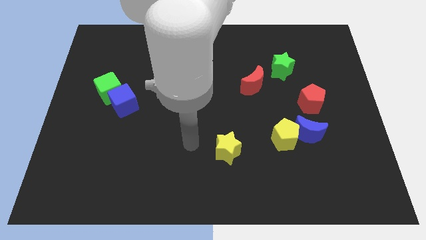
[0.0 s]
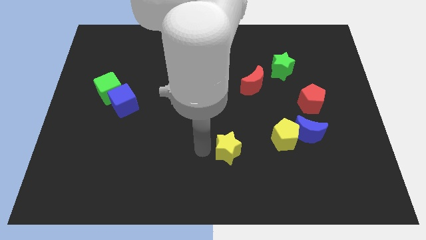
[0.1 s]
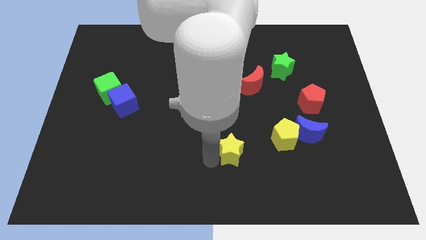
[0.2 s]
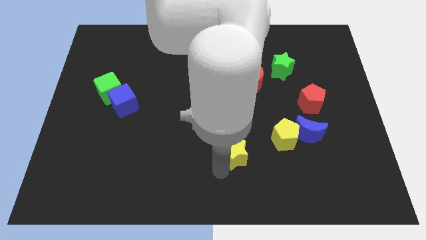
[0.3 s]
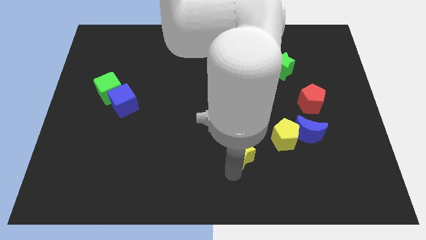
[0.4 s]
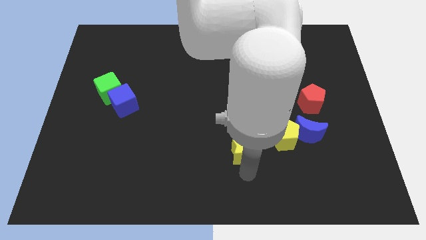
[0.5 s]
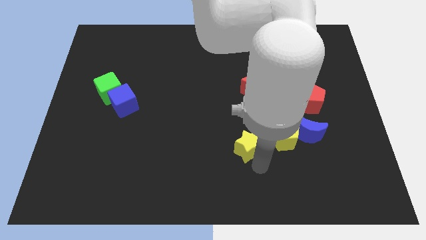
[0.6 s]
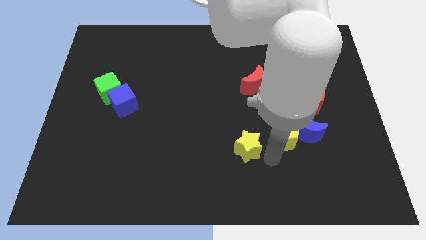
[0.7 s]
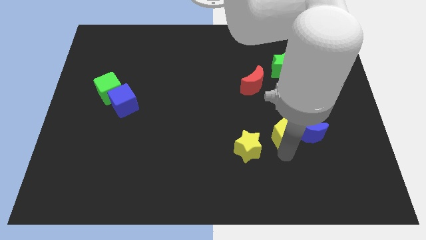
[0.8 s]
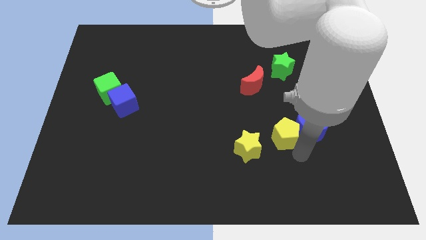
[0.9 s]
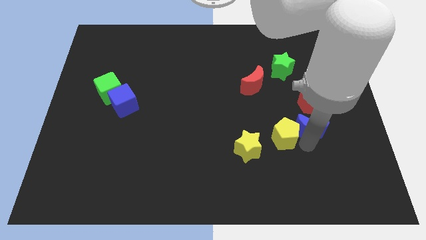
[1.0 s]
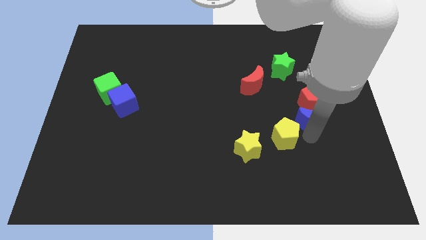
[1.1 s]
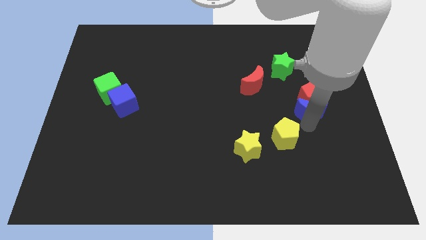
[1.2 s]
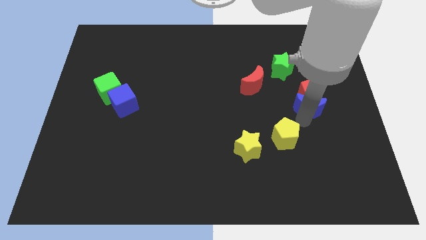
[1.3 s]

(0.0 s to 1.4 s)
move the yellow pentagon away from the blue moon

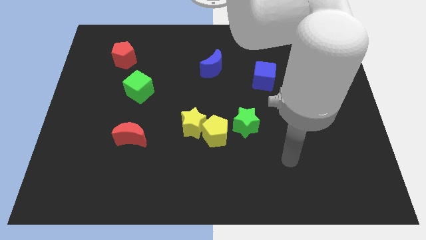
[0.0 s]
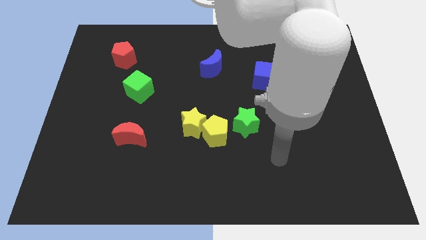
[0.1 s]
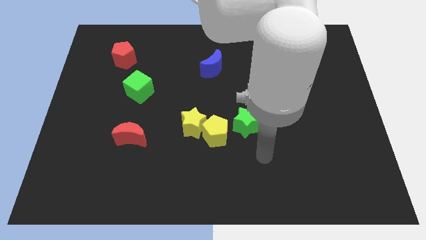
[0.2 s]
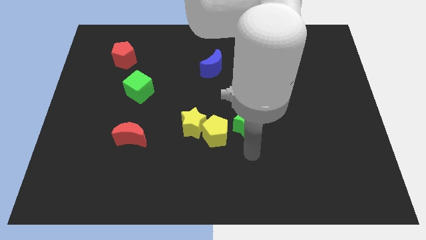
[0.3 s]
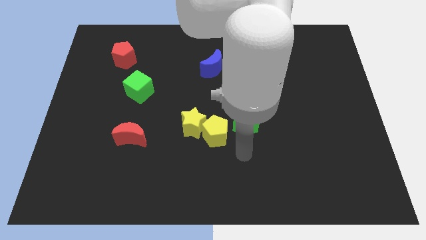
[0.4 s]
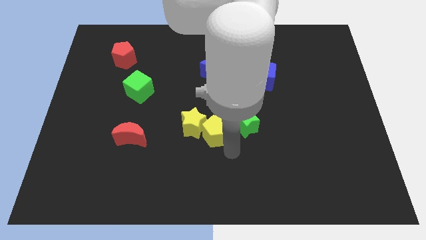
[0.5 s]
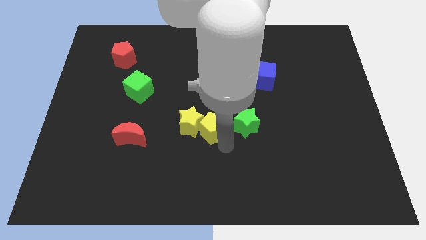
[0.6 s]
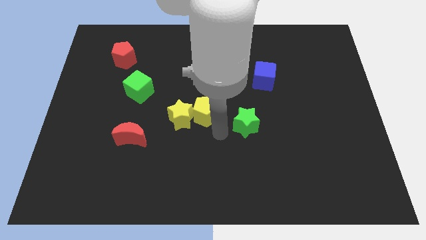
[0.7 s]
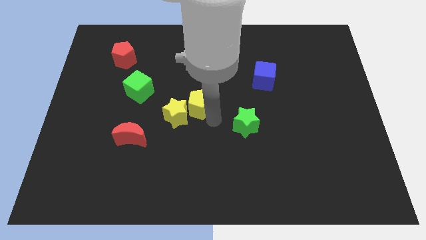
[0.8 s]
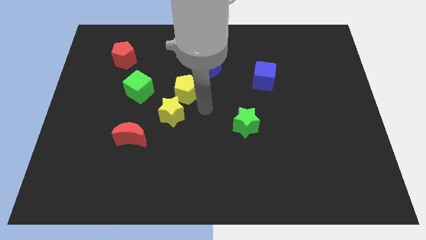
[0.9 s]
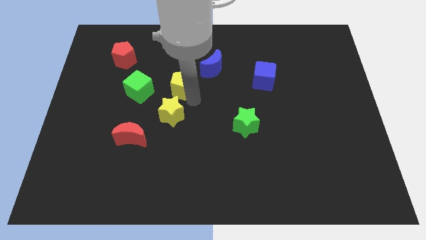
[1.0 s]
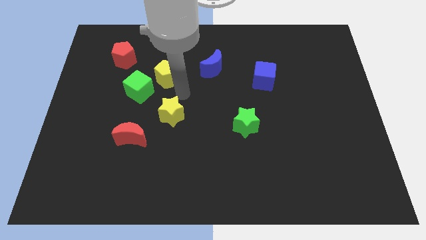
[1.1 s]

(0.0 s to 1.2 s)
pull the yellow star apart from the yellow pentagon

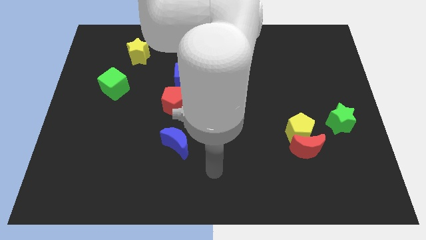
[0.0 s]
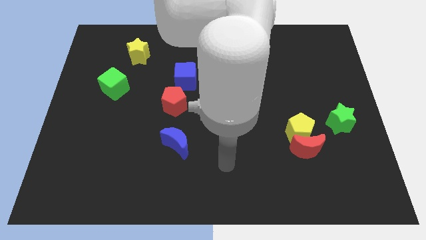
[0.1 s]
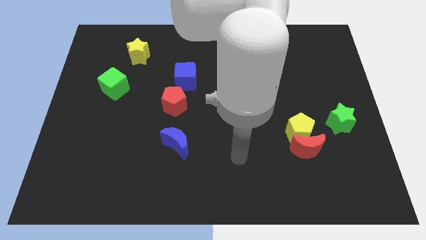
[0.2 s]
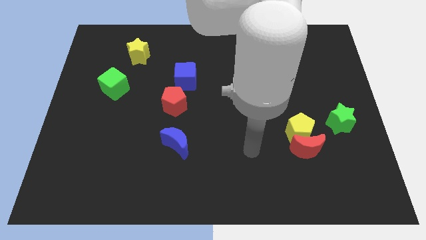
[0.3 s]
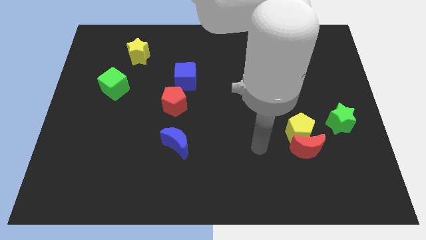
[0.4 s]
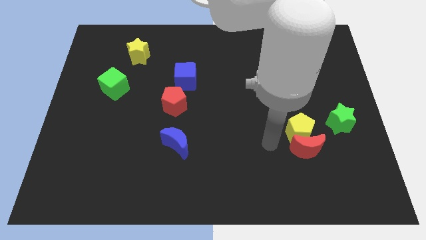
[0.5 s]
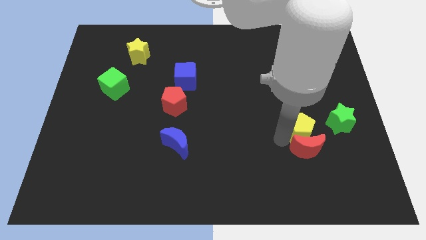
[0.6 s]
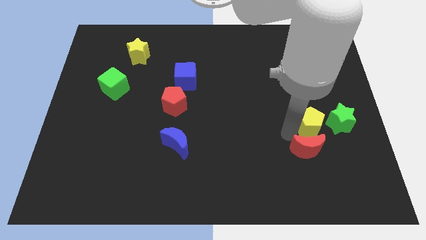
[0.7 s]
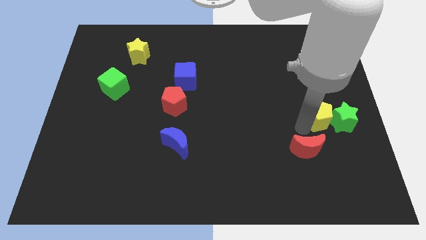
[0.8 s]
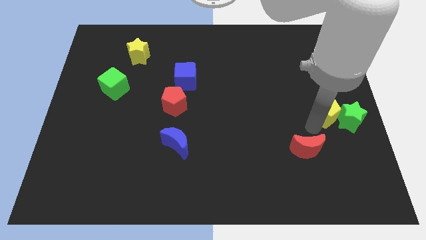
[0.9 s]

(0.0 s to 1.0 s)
move the red moon away from the yellow pentagon

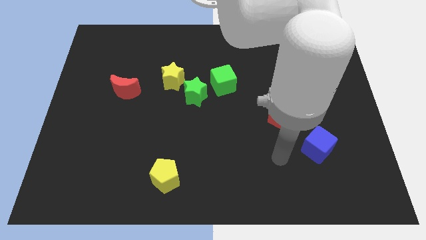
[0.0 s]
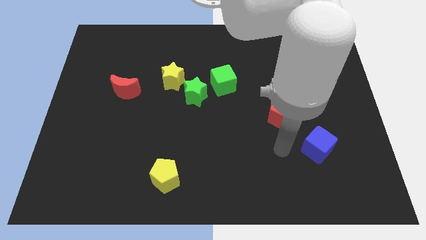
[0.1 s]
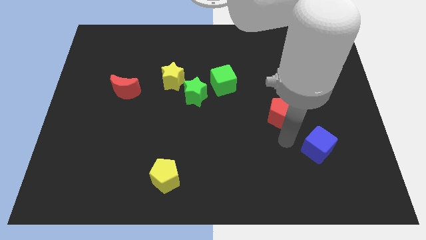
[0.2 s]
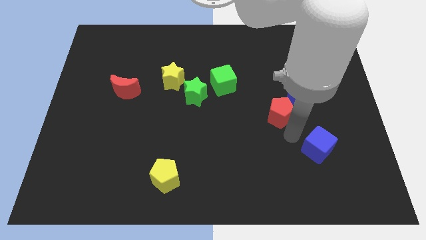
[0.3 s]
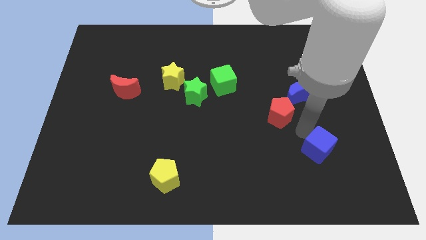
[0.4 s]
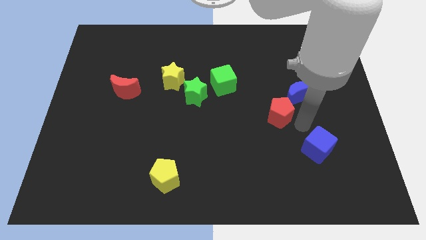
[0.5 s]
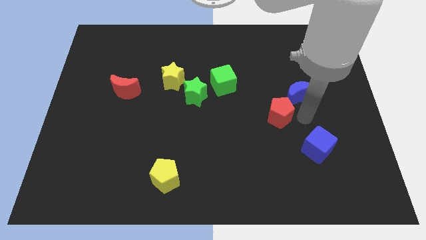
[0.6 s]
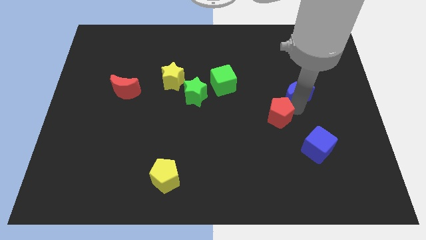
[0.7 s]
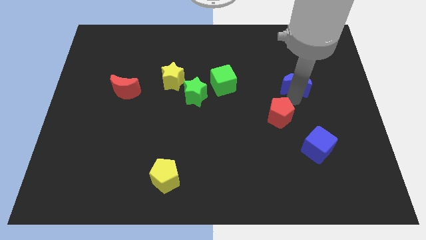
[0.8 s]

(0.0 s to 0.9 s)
pull the red pentagon apart from the blue moon

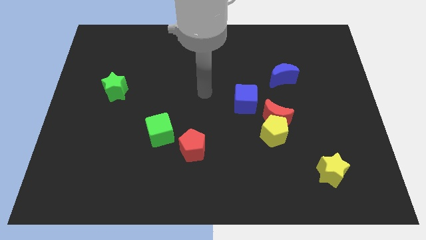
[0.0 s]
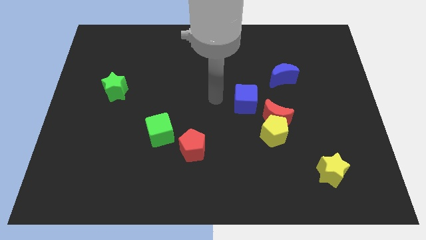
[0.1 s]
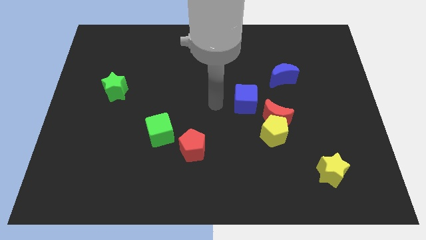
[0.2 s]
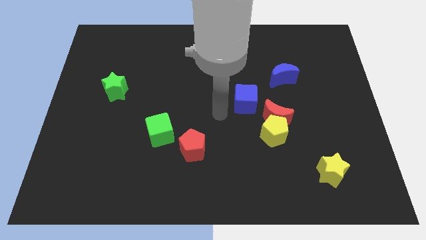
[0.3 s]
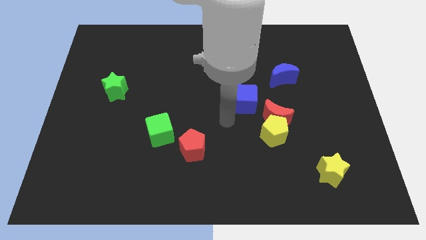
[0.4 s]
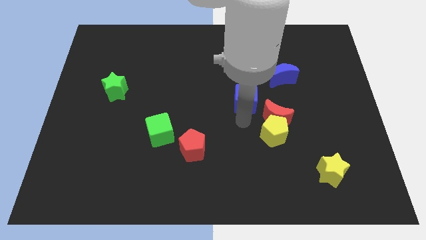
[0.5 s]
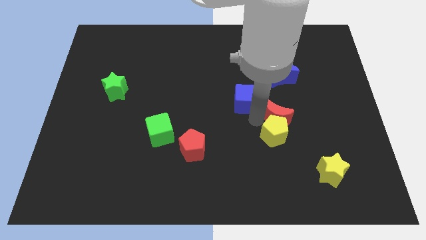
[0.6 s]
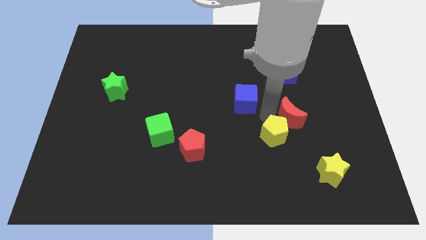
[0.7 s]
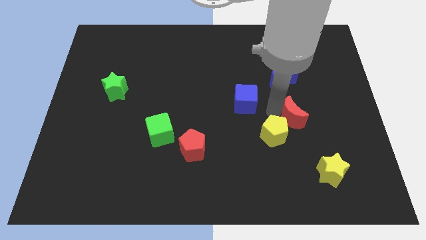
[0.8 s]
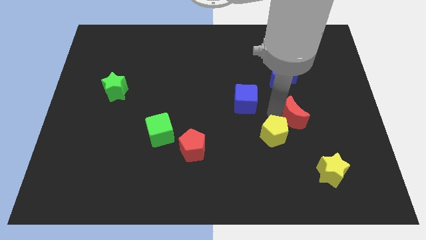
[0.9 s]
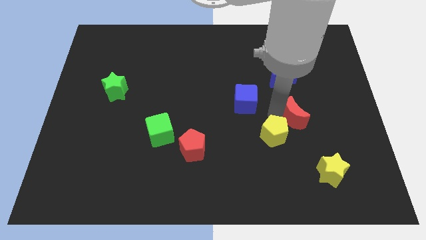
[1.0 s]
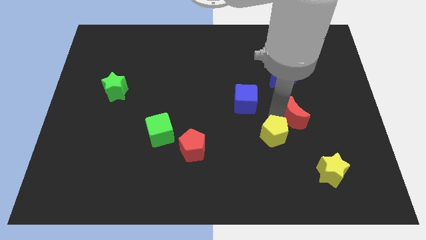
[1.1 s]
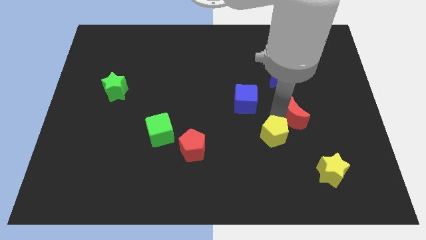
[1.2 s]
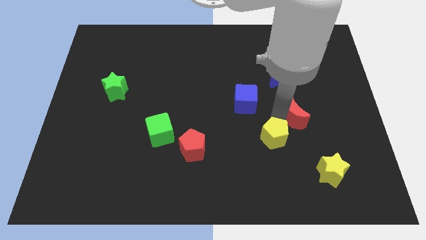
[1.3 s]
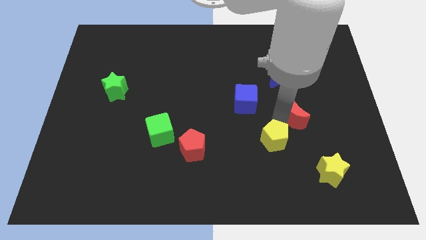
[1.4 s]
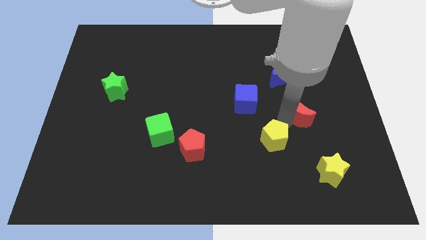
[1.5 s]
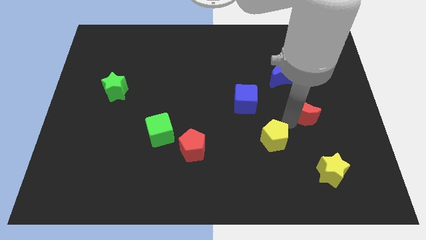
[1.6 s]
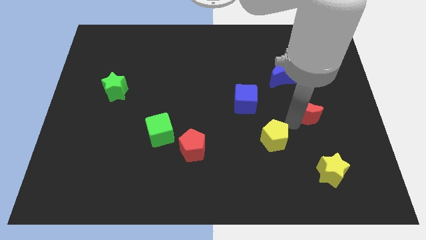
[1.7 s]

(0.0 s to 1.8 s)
pull the yellow pentagon apart from the red moon

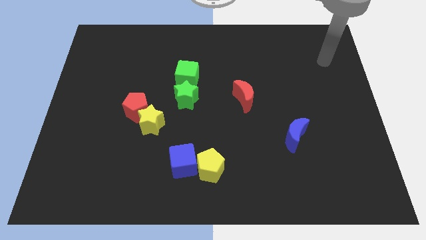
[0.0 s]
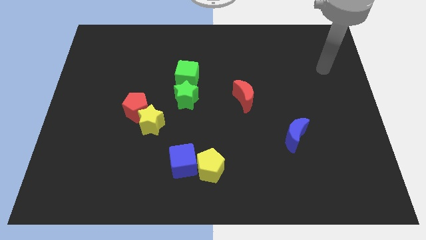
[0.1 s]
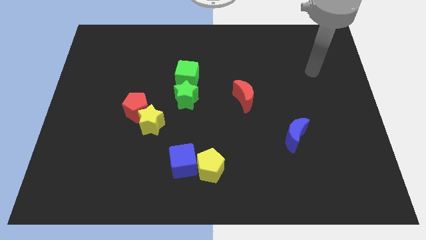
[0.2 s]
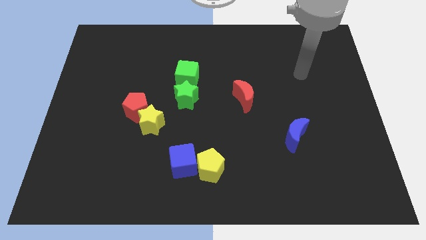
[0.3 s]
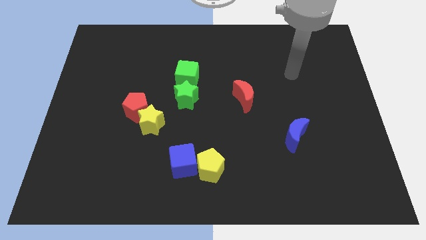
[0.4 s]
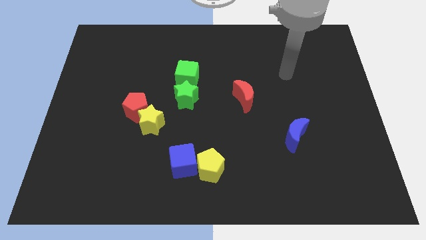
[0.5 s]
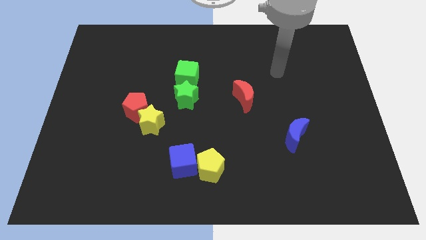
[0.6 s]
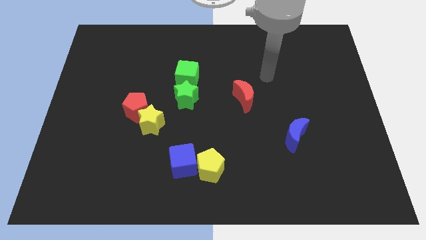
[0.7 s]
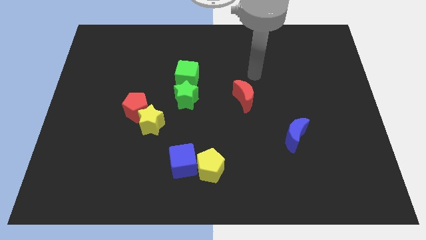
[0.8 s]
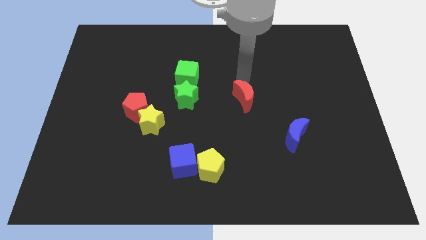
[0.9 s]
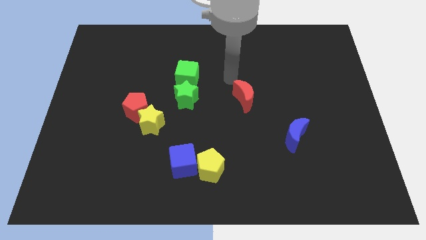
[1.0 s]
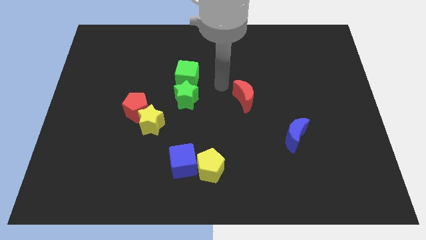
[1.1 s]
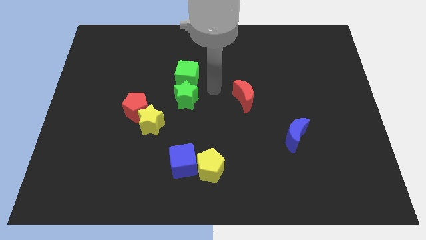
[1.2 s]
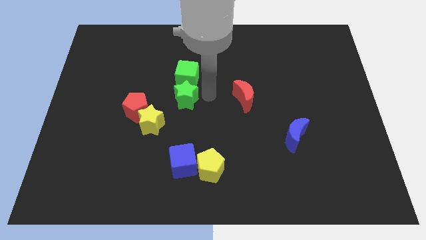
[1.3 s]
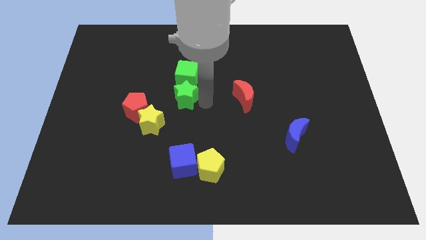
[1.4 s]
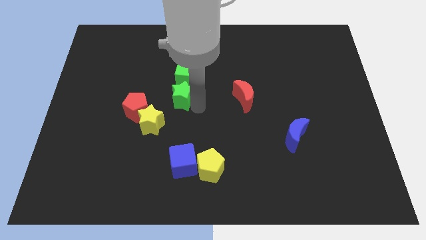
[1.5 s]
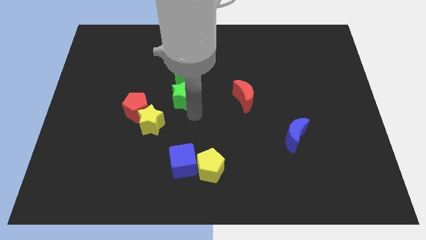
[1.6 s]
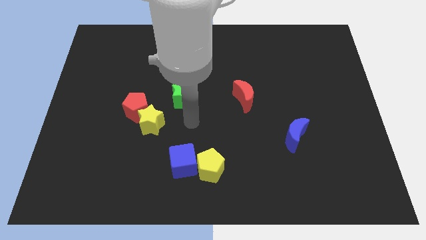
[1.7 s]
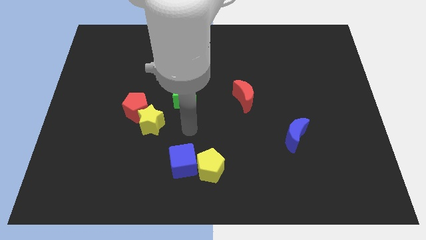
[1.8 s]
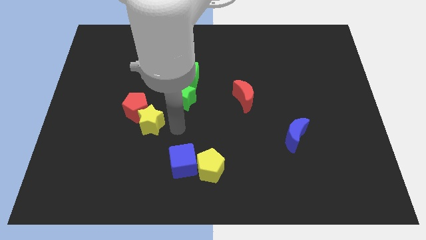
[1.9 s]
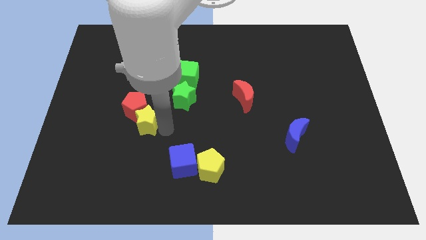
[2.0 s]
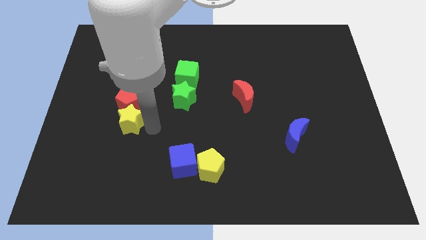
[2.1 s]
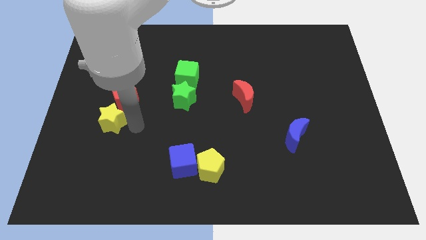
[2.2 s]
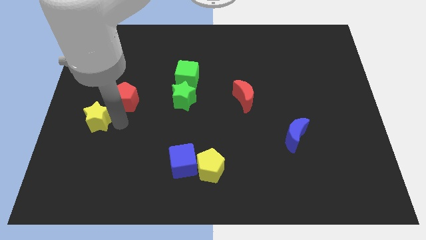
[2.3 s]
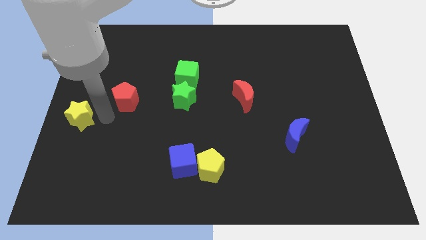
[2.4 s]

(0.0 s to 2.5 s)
move the red pentagon away from the yellow star

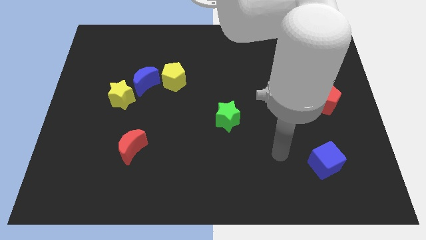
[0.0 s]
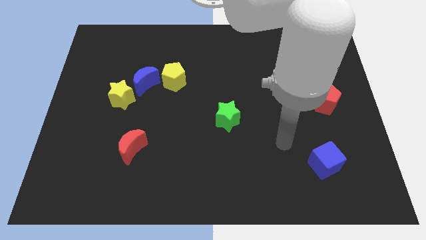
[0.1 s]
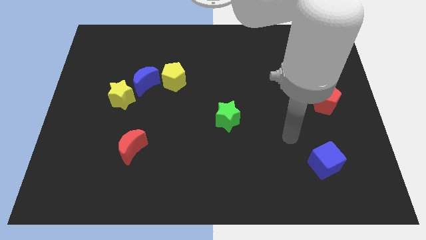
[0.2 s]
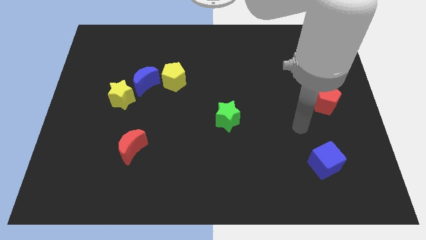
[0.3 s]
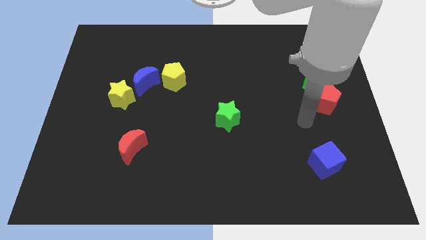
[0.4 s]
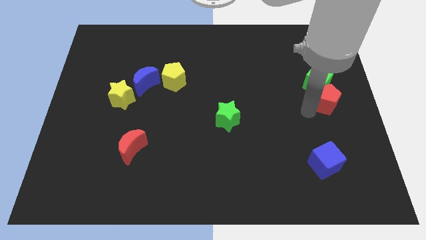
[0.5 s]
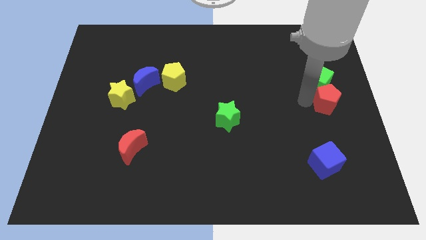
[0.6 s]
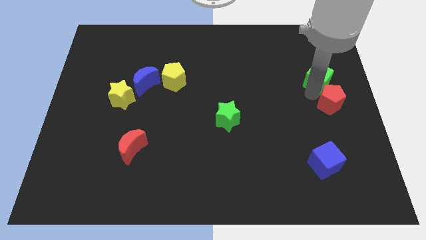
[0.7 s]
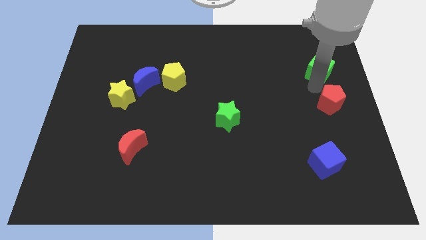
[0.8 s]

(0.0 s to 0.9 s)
pull the red pentagon apart from the green cube
